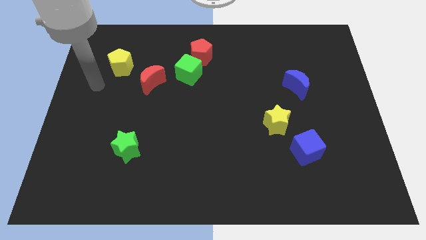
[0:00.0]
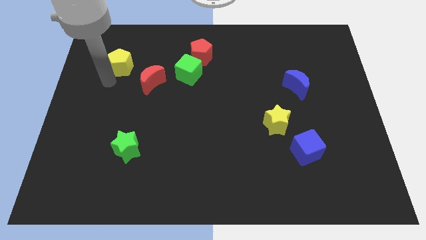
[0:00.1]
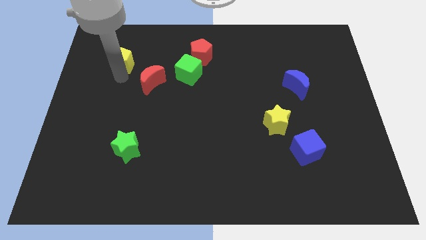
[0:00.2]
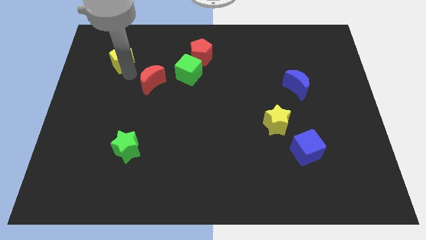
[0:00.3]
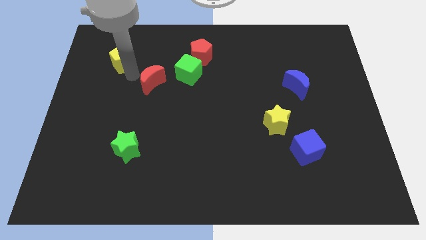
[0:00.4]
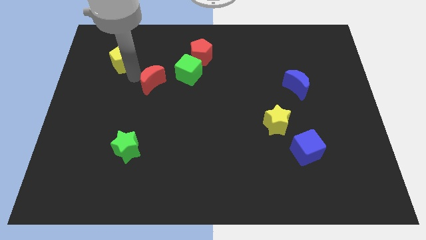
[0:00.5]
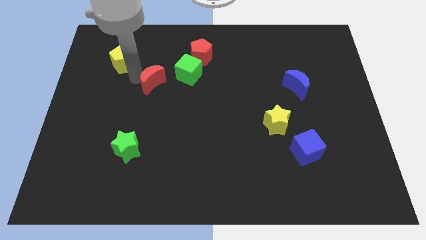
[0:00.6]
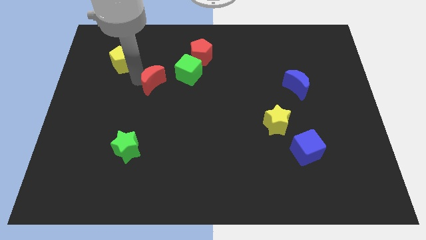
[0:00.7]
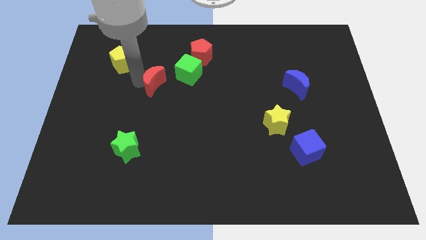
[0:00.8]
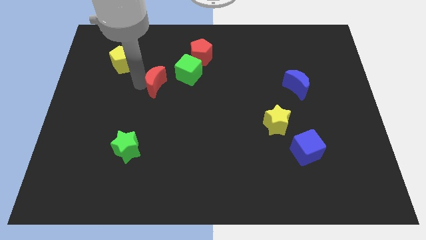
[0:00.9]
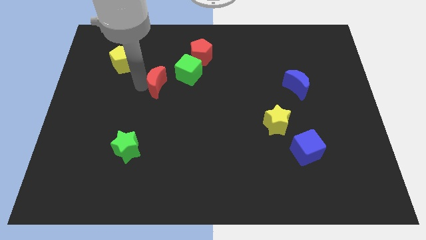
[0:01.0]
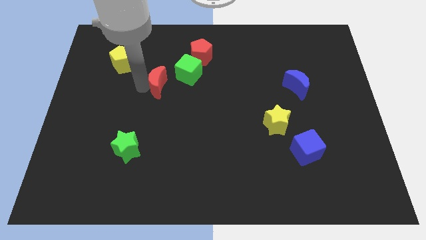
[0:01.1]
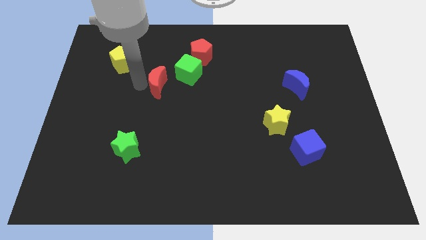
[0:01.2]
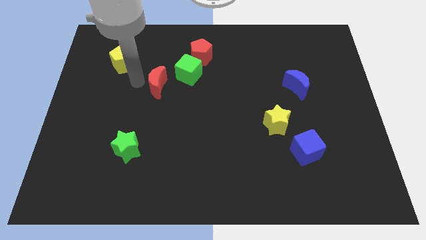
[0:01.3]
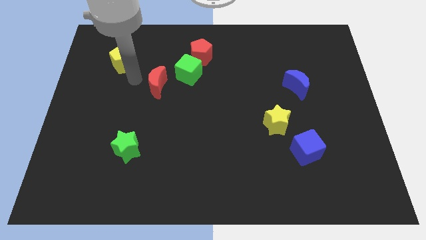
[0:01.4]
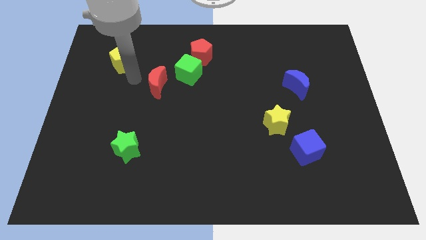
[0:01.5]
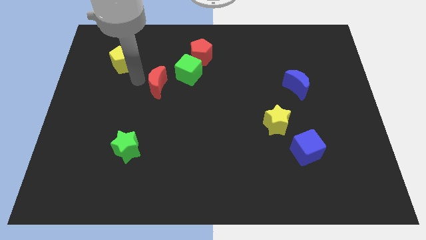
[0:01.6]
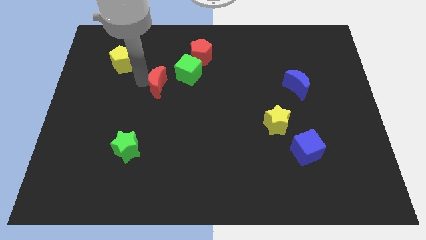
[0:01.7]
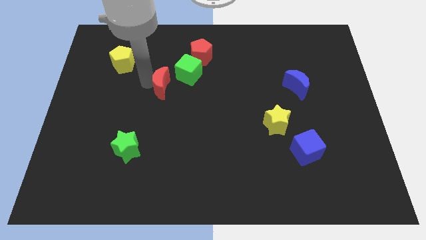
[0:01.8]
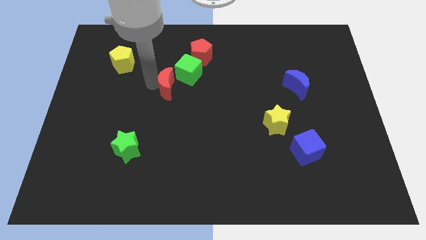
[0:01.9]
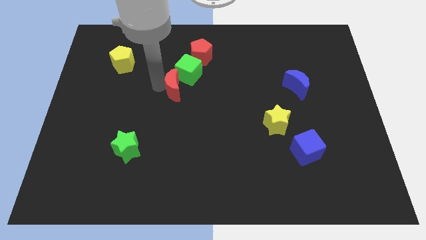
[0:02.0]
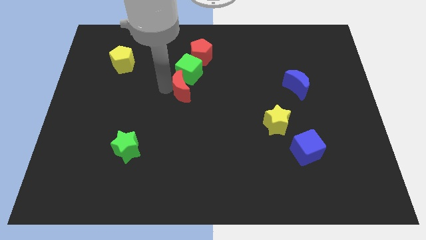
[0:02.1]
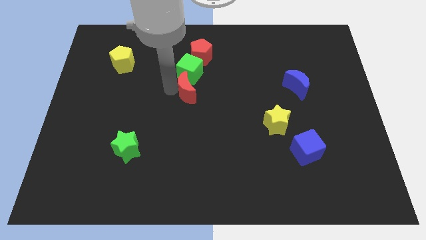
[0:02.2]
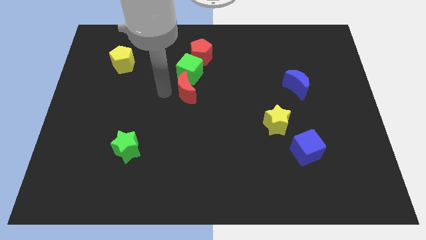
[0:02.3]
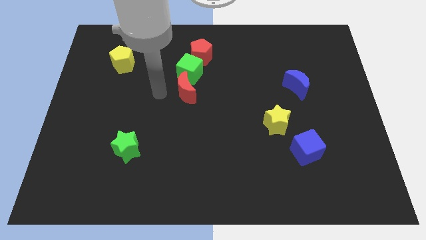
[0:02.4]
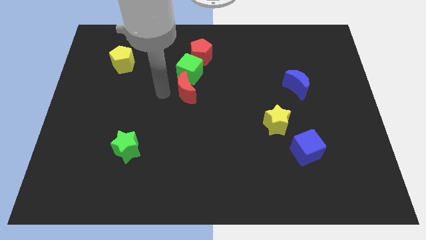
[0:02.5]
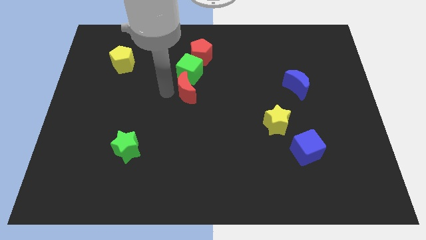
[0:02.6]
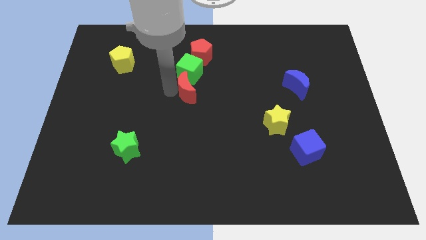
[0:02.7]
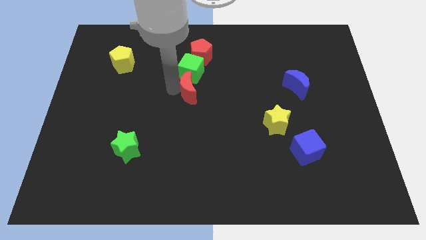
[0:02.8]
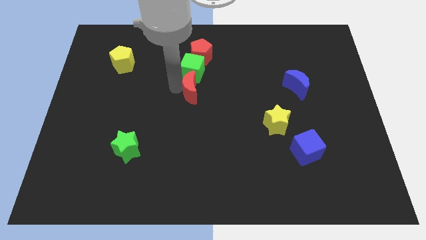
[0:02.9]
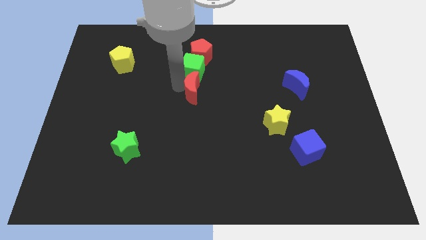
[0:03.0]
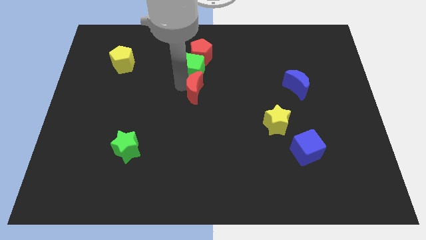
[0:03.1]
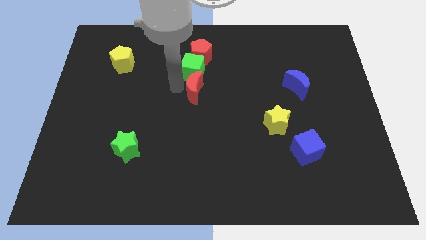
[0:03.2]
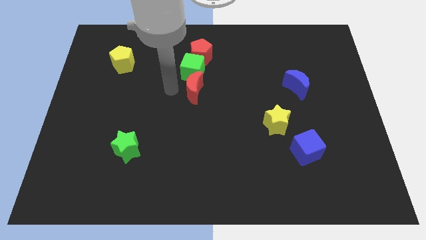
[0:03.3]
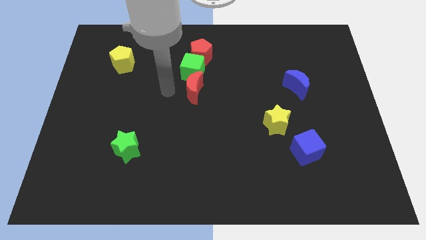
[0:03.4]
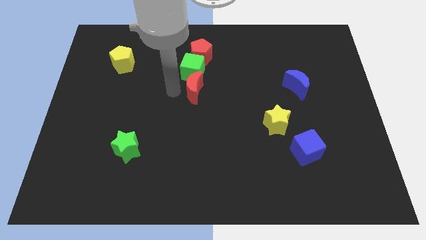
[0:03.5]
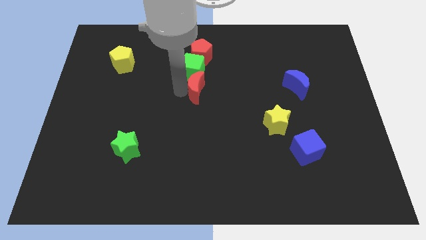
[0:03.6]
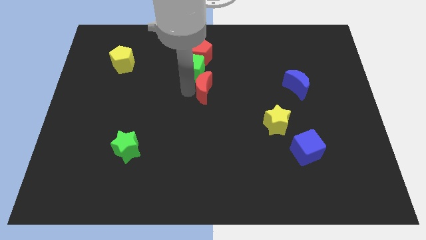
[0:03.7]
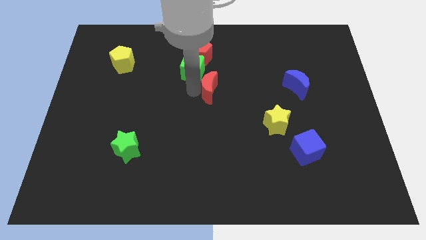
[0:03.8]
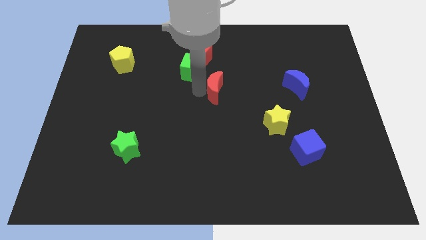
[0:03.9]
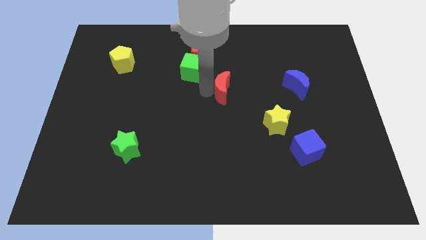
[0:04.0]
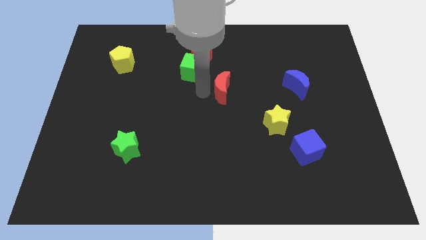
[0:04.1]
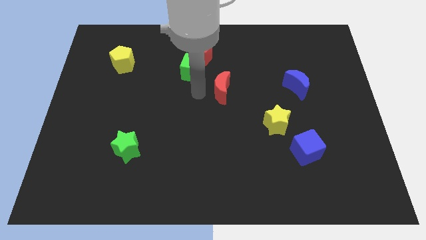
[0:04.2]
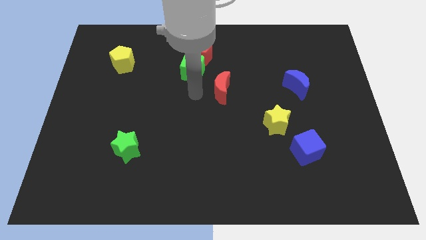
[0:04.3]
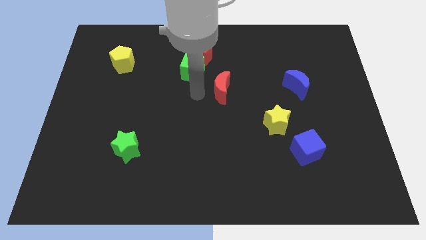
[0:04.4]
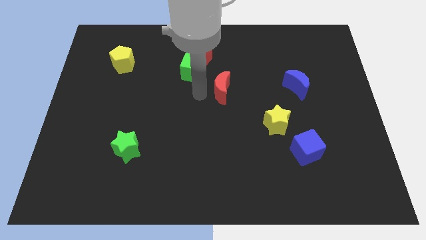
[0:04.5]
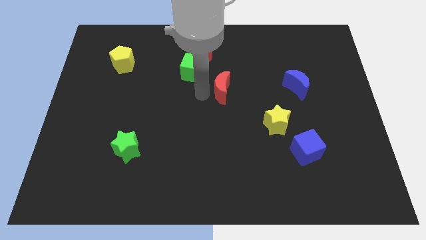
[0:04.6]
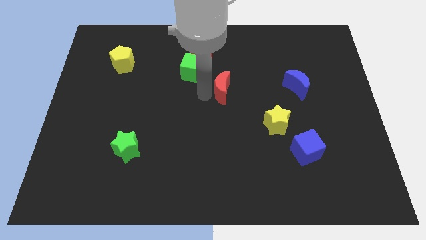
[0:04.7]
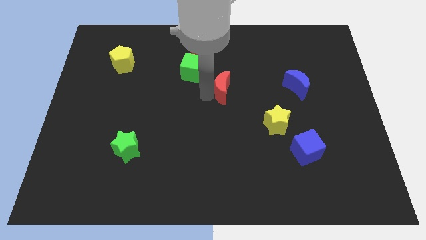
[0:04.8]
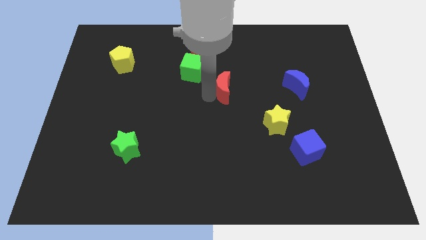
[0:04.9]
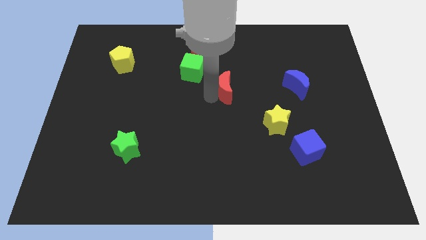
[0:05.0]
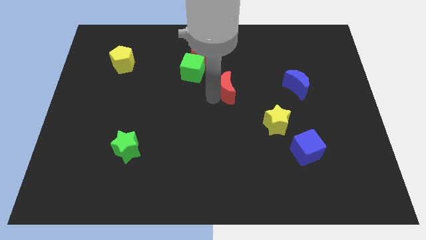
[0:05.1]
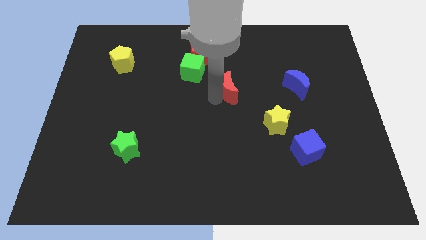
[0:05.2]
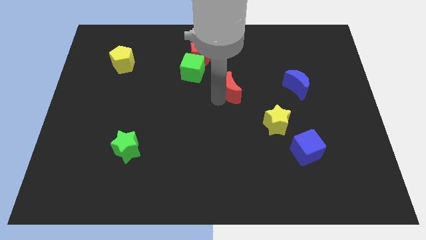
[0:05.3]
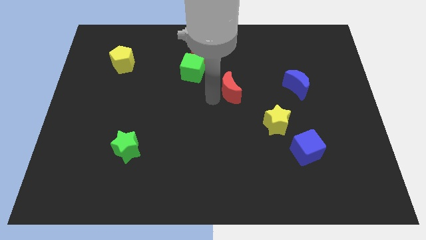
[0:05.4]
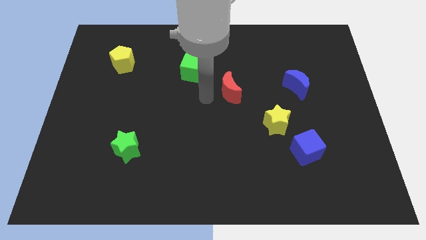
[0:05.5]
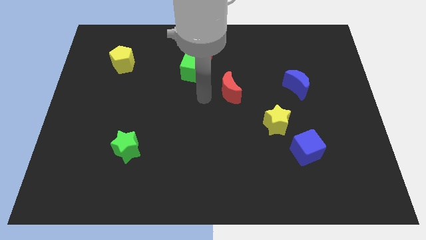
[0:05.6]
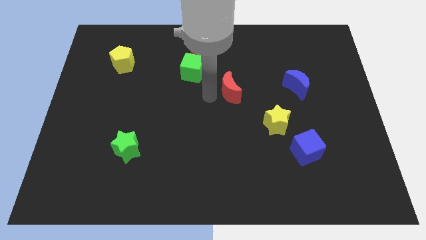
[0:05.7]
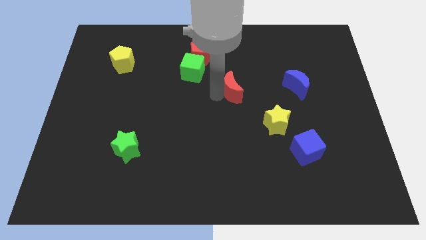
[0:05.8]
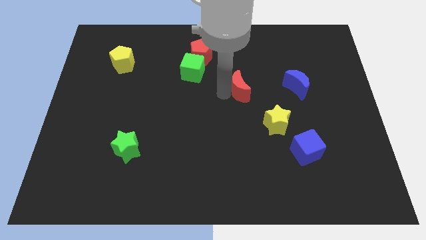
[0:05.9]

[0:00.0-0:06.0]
move the red moon just left of the blue moon
